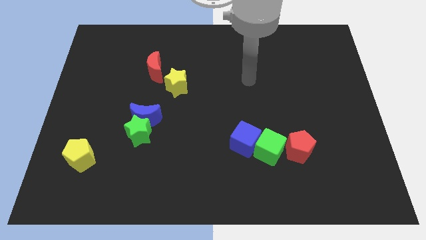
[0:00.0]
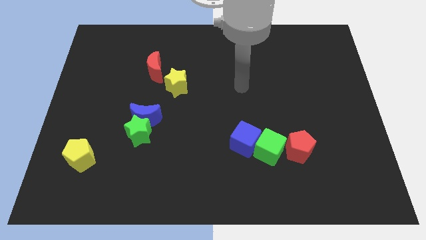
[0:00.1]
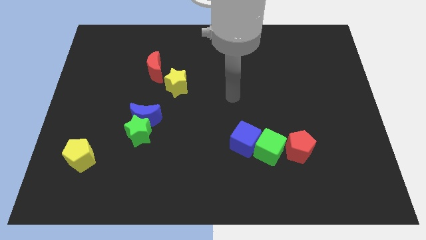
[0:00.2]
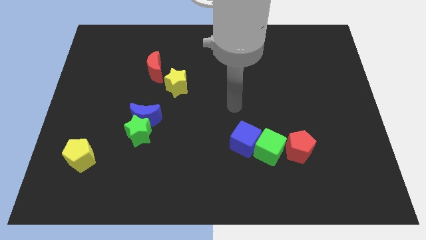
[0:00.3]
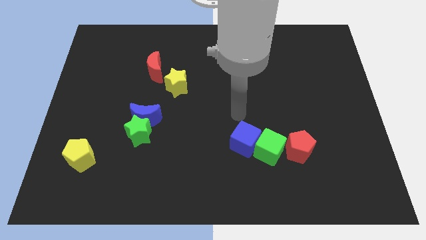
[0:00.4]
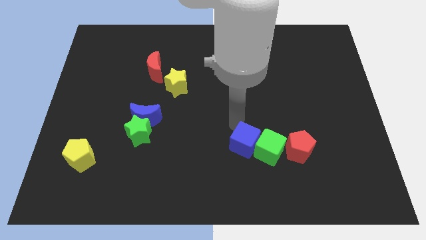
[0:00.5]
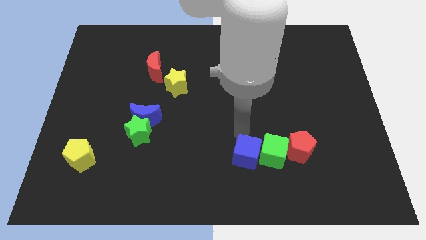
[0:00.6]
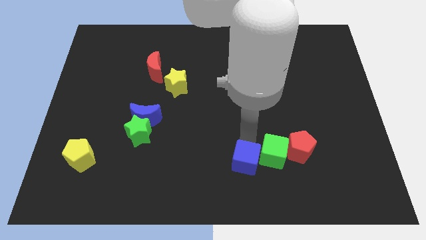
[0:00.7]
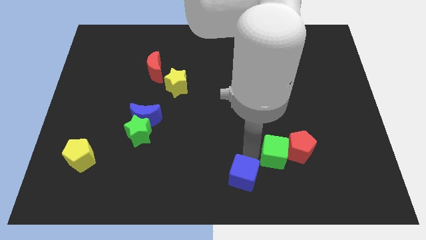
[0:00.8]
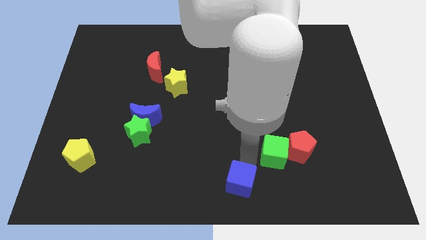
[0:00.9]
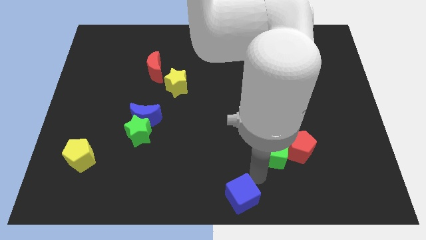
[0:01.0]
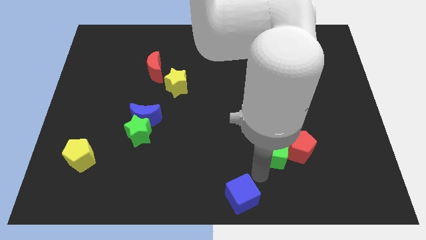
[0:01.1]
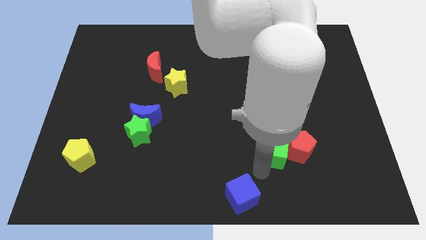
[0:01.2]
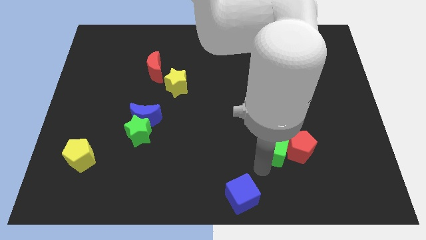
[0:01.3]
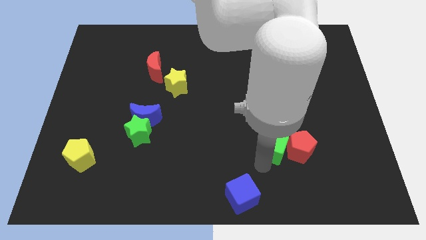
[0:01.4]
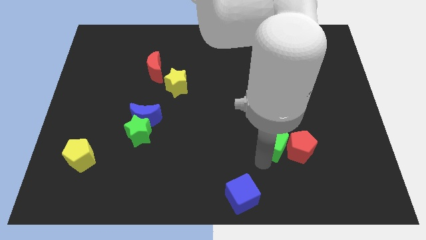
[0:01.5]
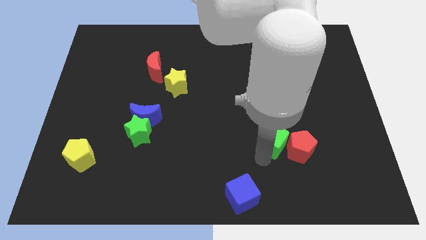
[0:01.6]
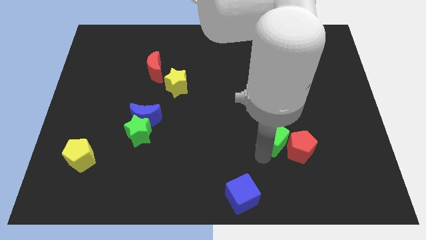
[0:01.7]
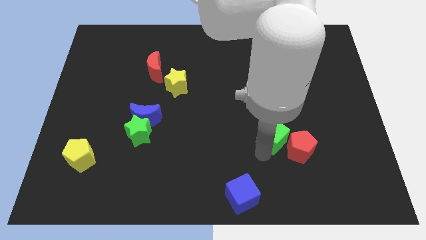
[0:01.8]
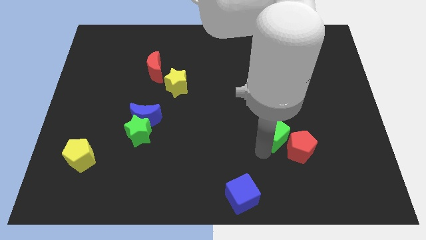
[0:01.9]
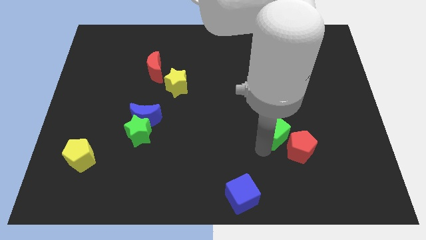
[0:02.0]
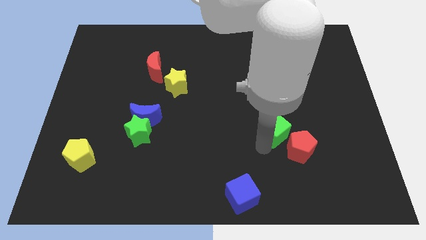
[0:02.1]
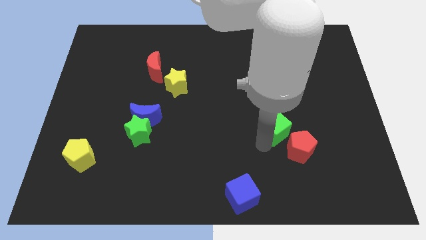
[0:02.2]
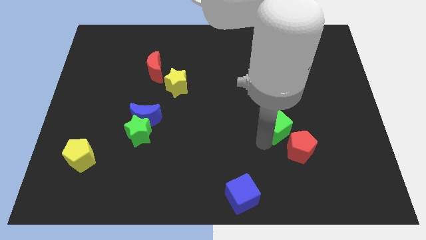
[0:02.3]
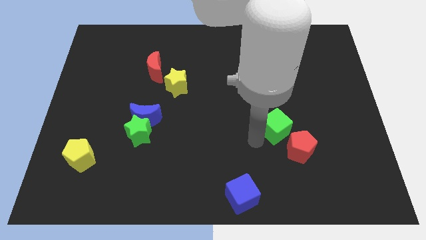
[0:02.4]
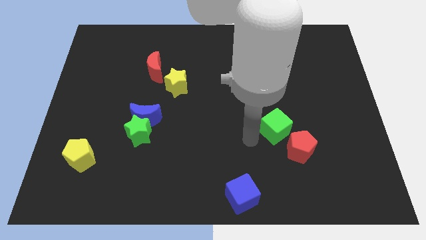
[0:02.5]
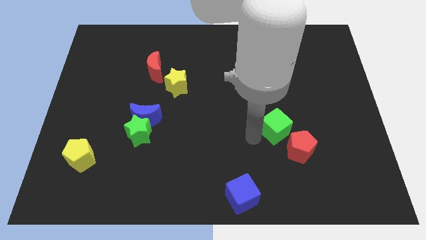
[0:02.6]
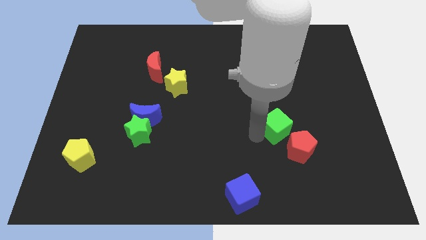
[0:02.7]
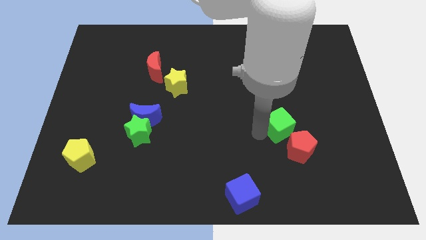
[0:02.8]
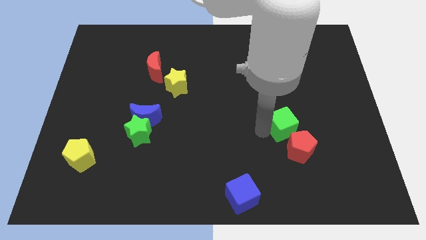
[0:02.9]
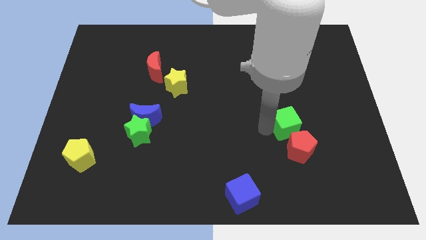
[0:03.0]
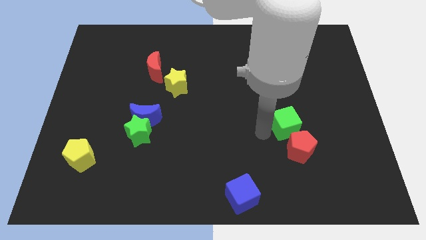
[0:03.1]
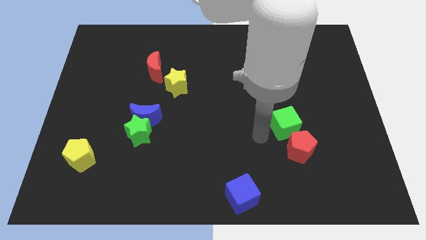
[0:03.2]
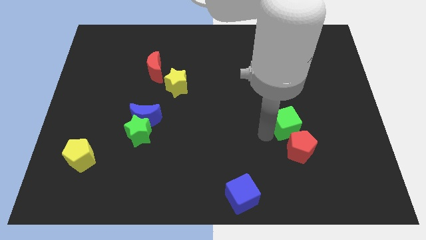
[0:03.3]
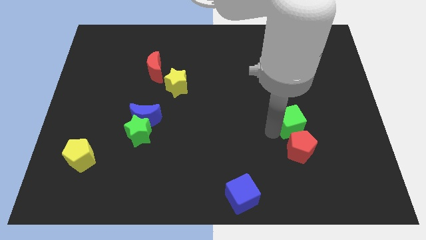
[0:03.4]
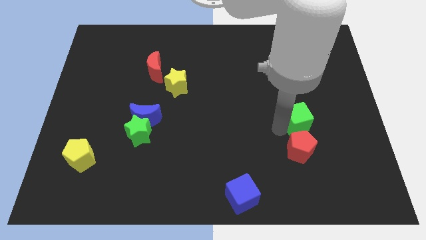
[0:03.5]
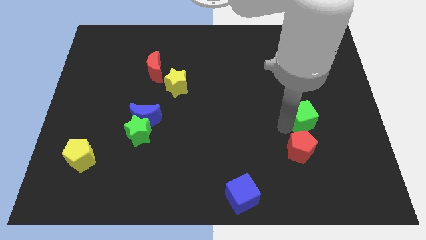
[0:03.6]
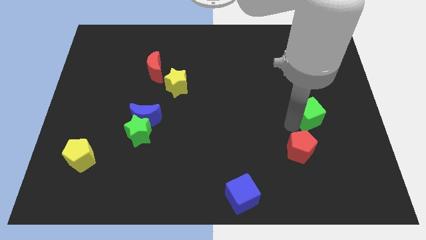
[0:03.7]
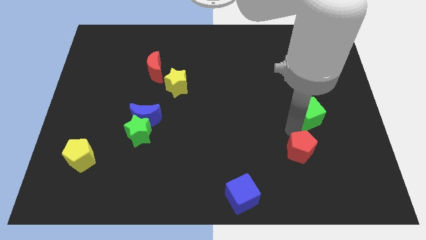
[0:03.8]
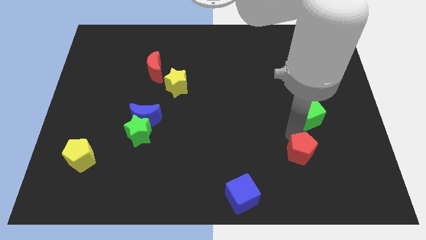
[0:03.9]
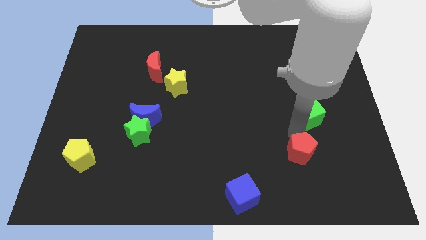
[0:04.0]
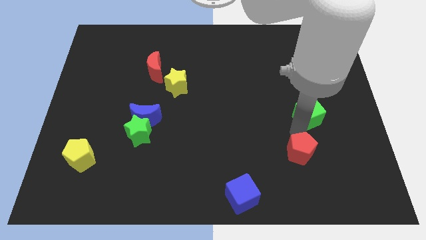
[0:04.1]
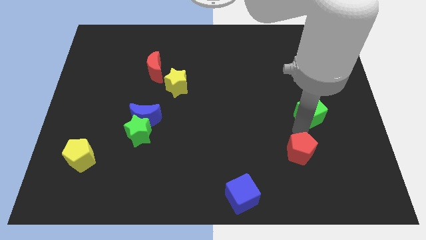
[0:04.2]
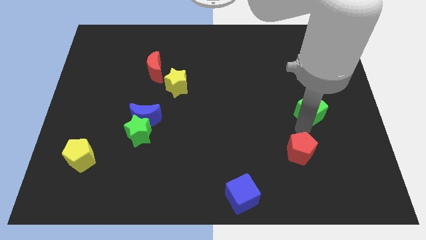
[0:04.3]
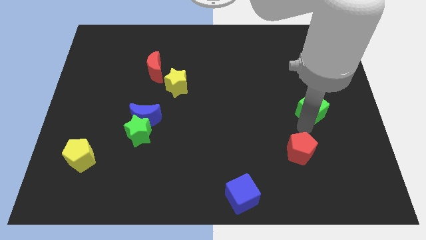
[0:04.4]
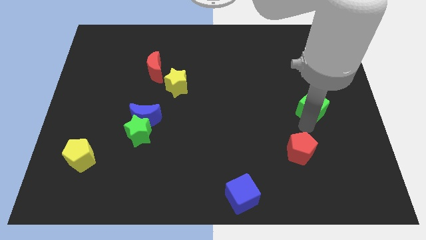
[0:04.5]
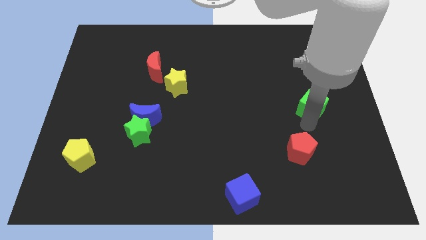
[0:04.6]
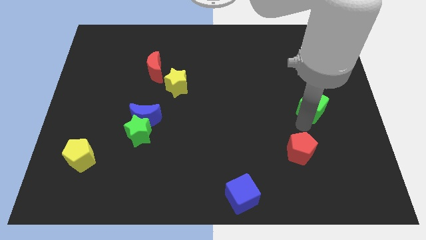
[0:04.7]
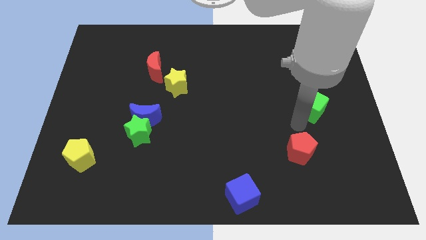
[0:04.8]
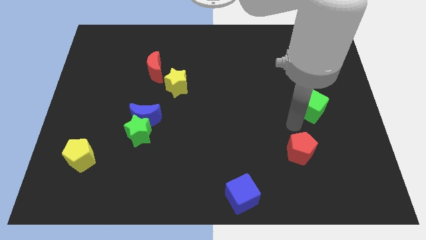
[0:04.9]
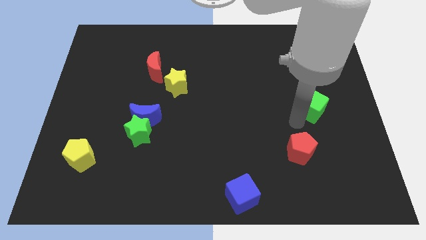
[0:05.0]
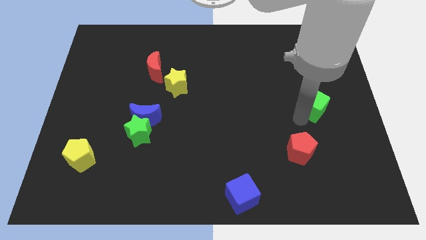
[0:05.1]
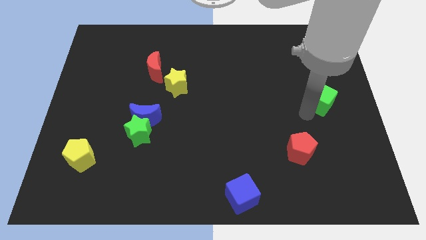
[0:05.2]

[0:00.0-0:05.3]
push the green cube to the right side of the board

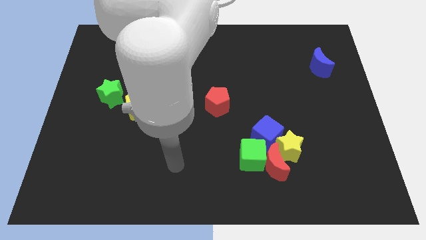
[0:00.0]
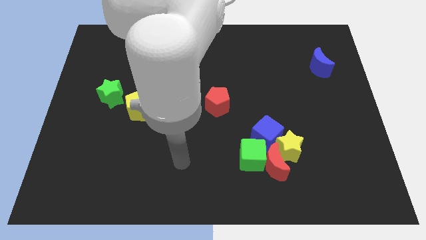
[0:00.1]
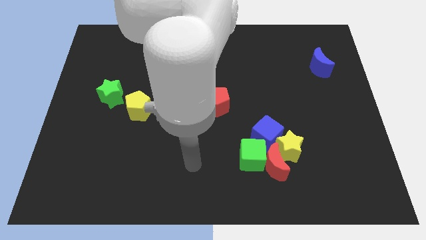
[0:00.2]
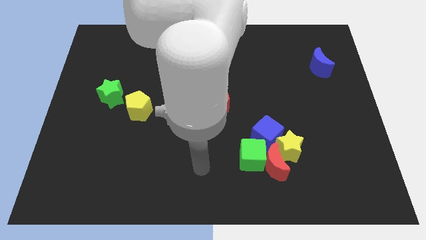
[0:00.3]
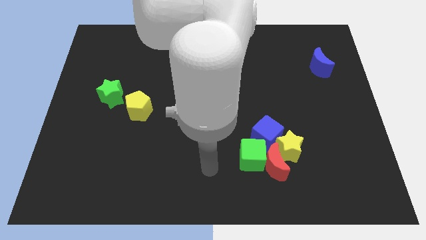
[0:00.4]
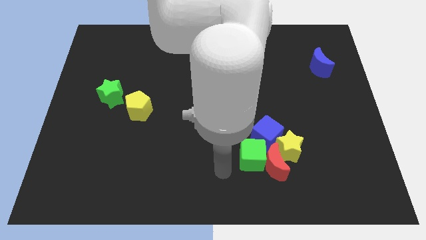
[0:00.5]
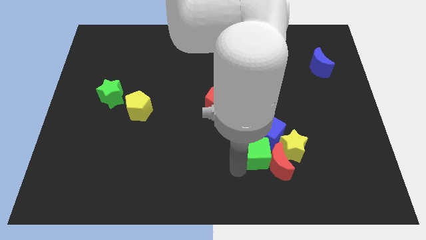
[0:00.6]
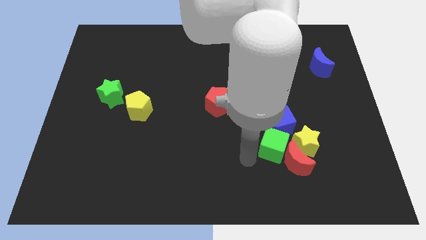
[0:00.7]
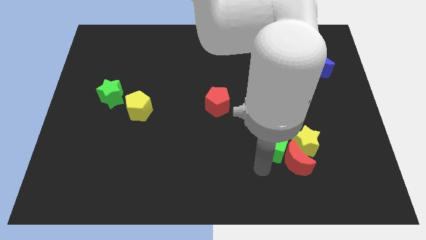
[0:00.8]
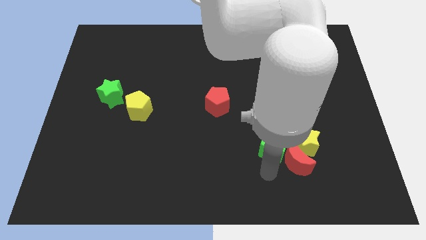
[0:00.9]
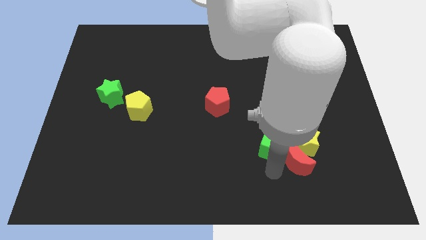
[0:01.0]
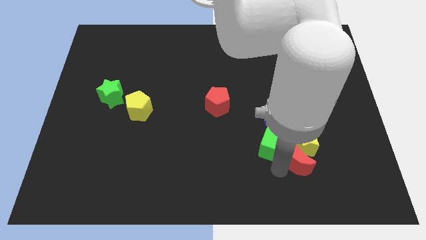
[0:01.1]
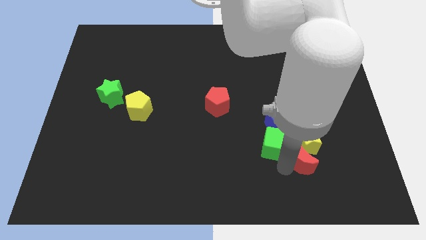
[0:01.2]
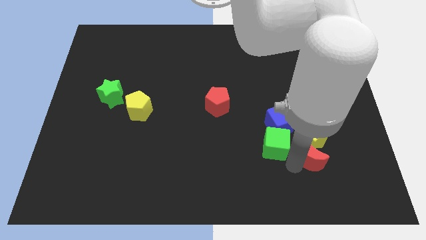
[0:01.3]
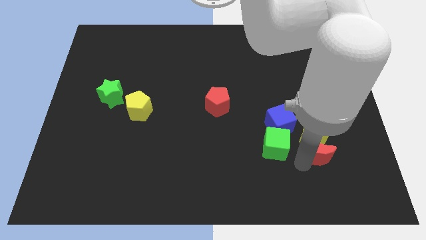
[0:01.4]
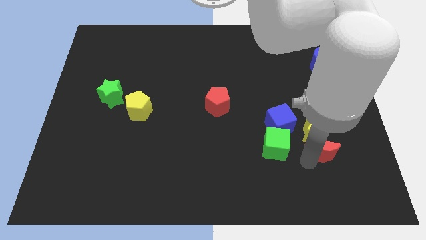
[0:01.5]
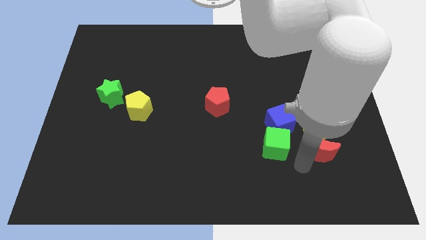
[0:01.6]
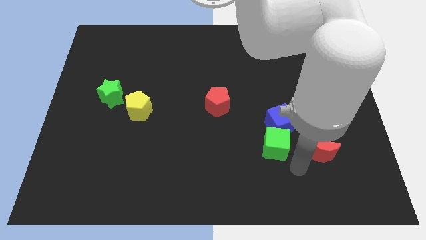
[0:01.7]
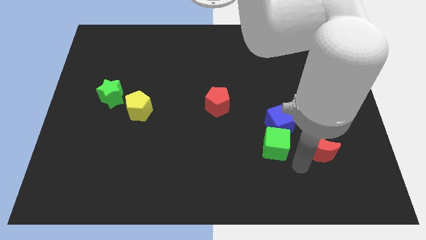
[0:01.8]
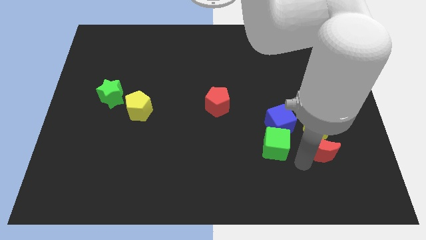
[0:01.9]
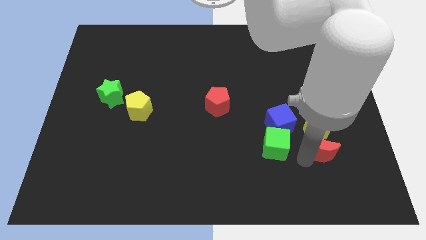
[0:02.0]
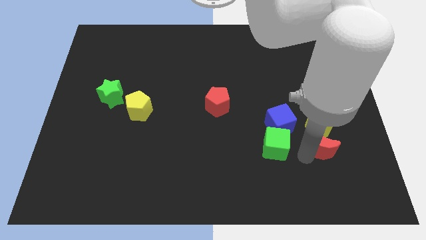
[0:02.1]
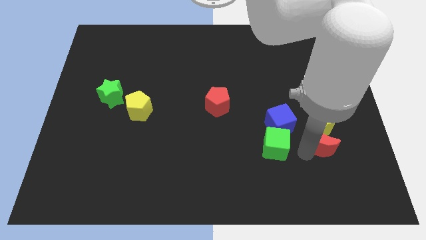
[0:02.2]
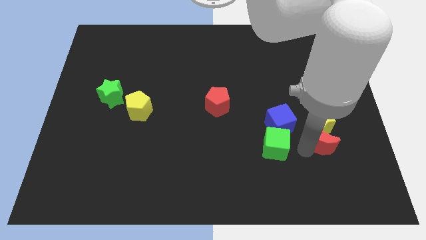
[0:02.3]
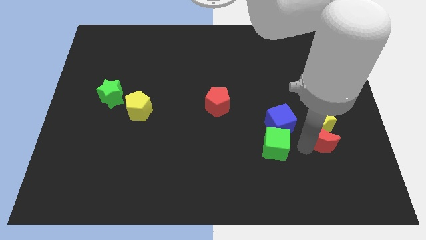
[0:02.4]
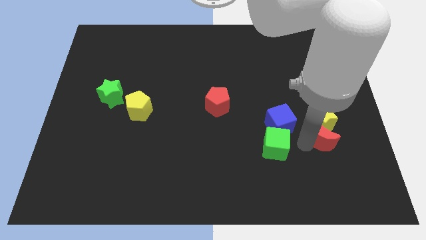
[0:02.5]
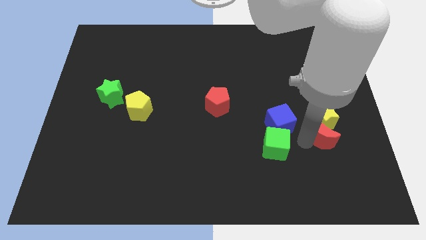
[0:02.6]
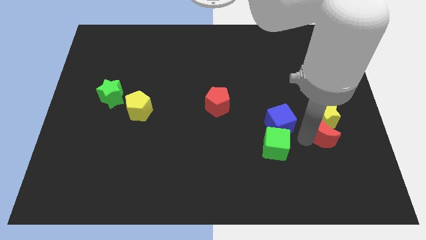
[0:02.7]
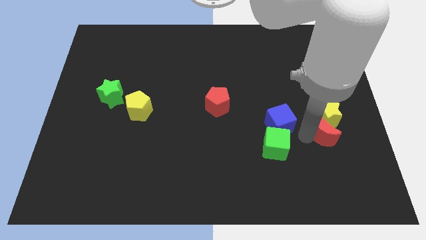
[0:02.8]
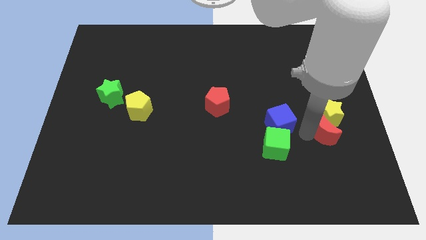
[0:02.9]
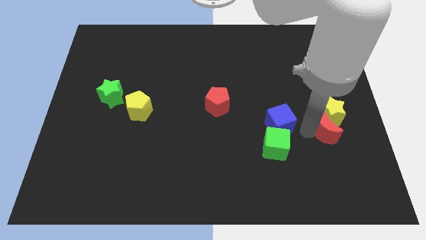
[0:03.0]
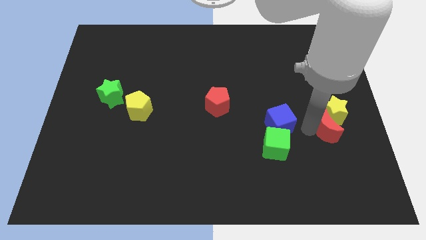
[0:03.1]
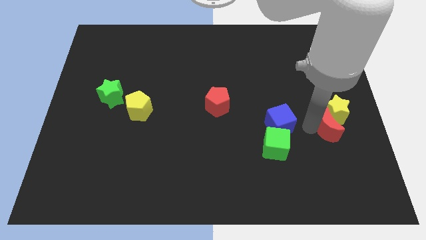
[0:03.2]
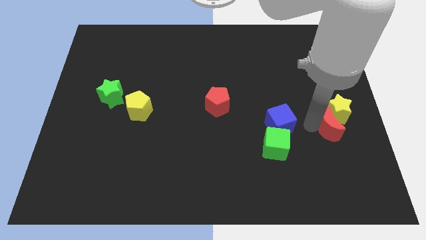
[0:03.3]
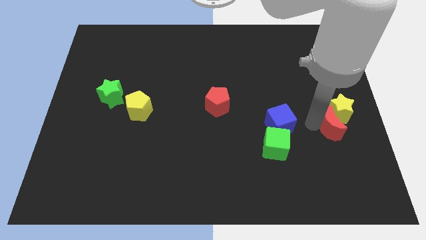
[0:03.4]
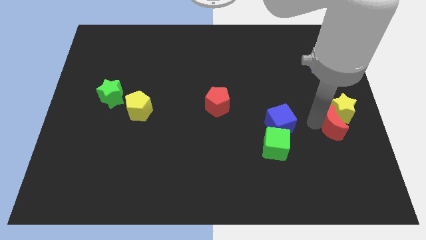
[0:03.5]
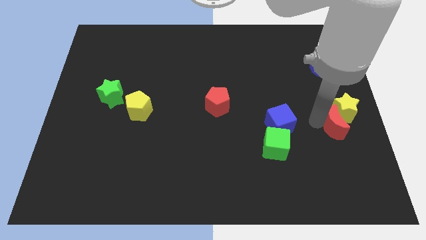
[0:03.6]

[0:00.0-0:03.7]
push the red moon to the right side of the board
